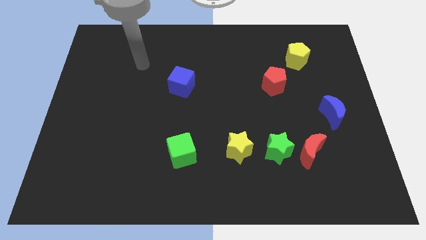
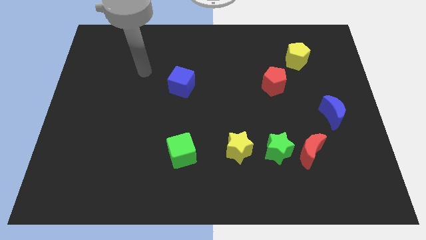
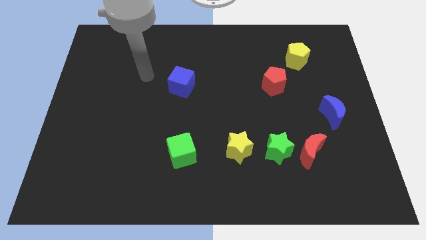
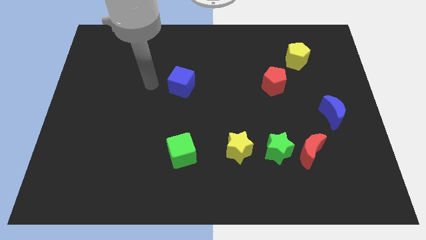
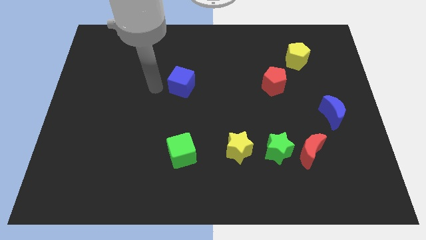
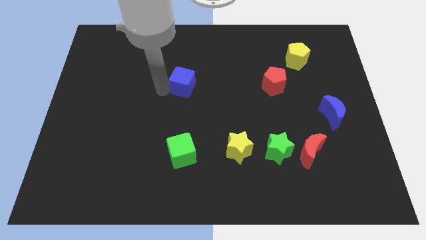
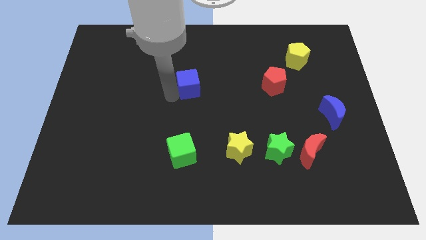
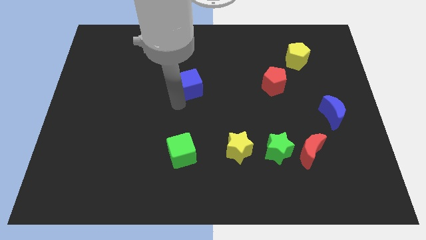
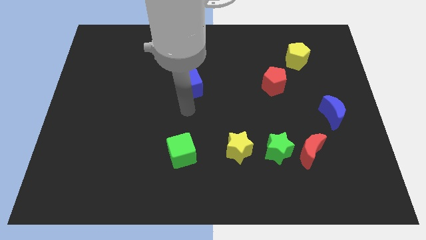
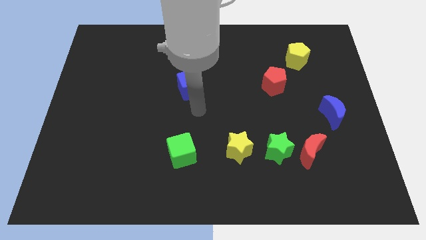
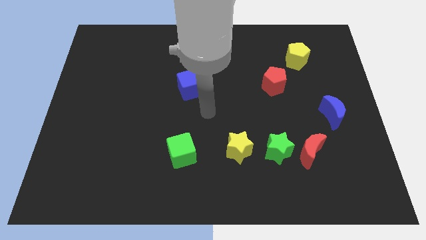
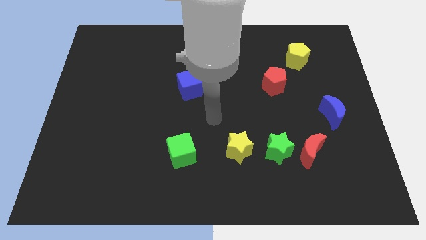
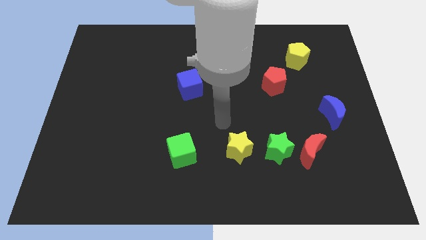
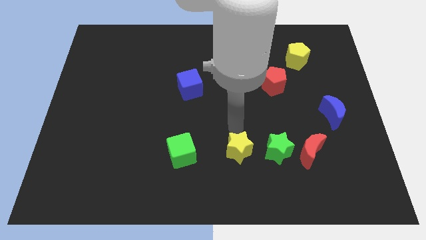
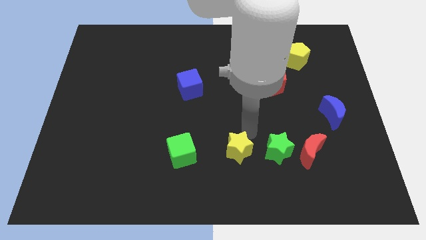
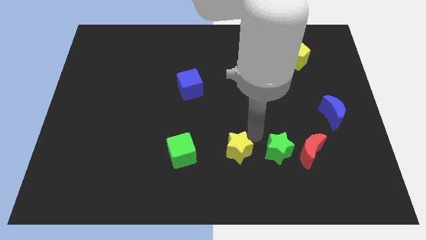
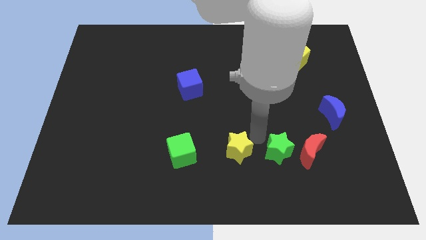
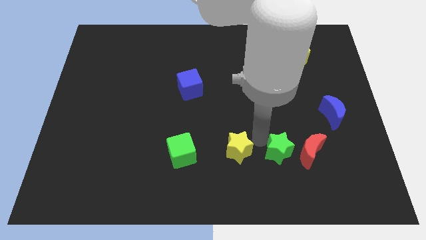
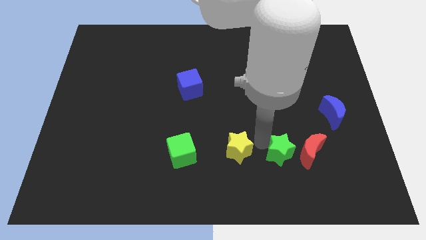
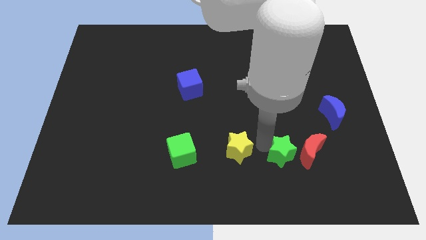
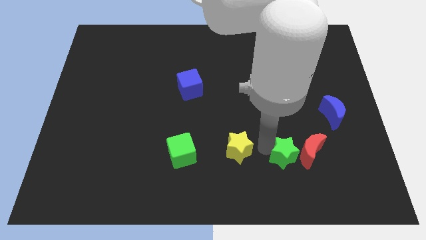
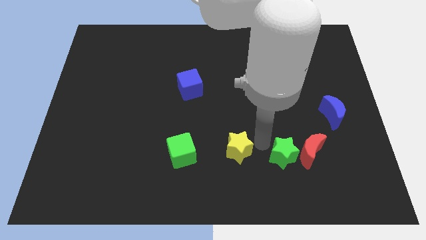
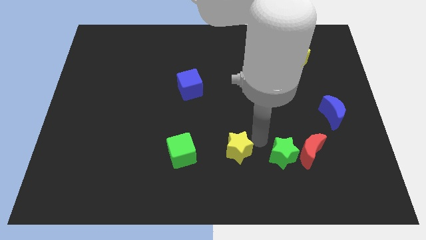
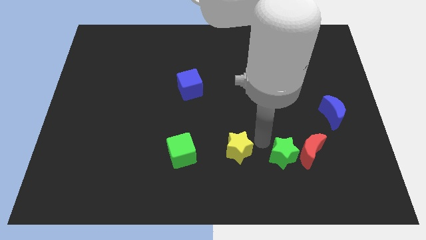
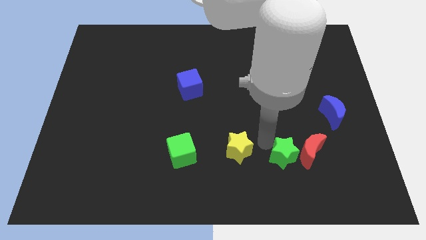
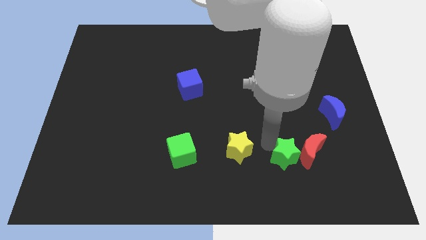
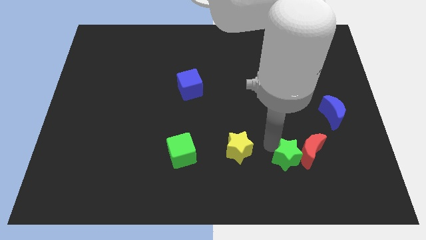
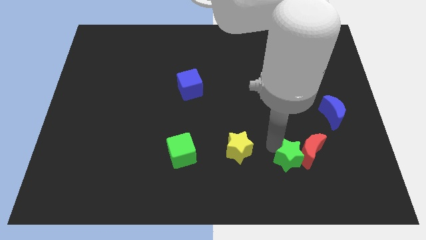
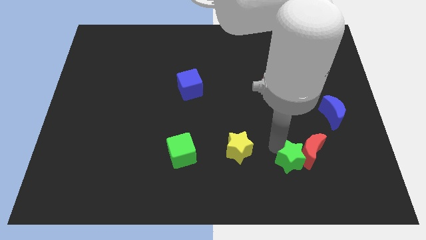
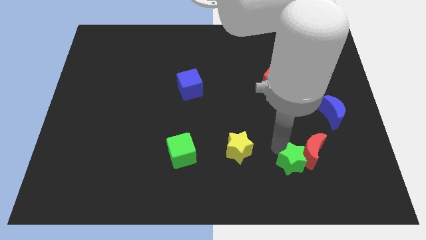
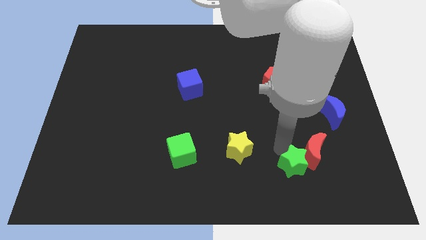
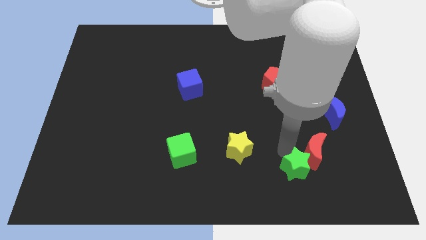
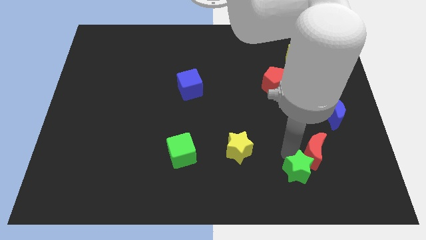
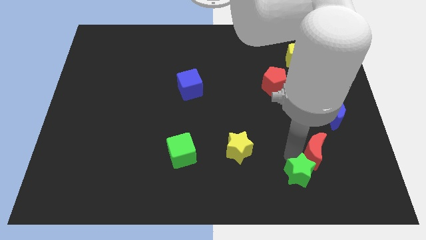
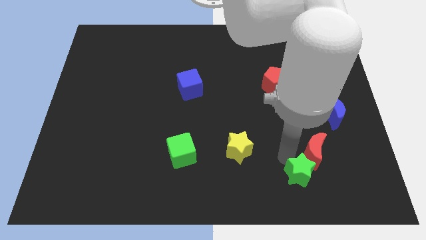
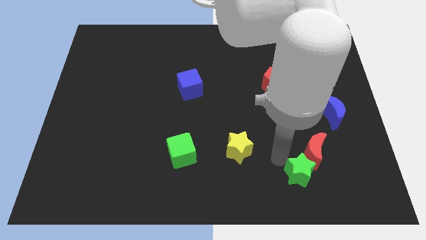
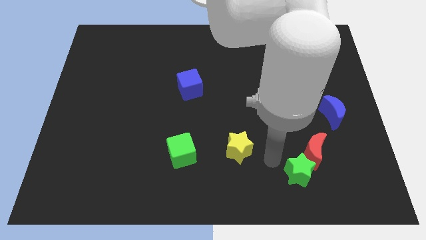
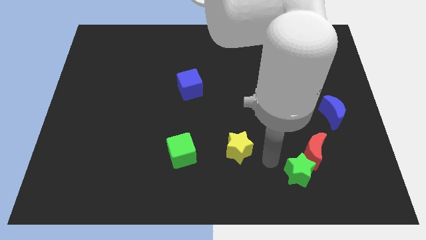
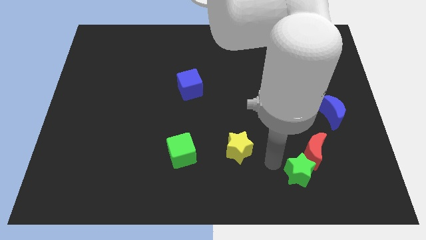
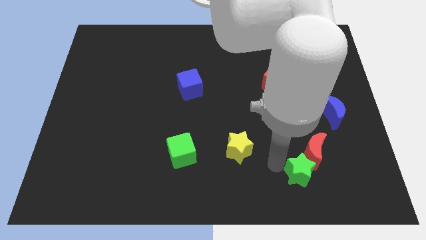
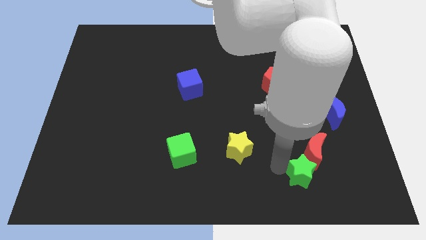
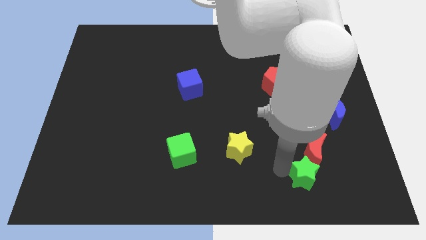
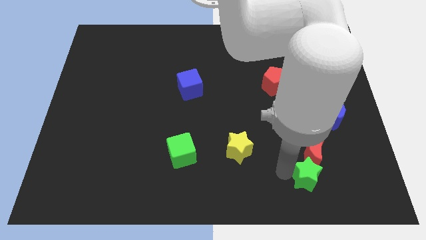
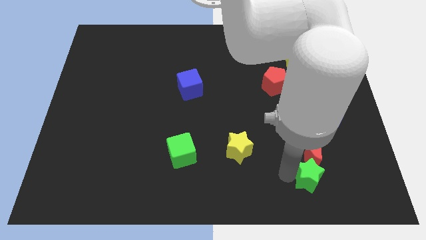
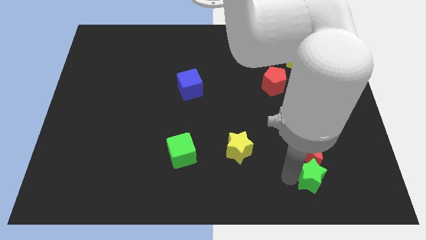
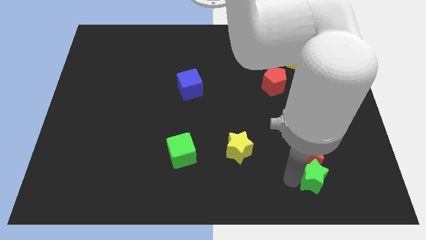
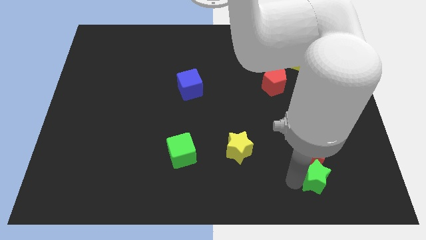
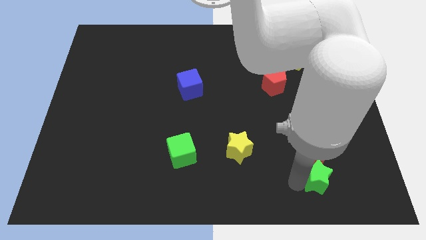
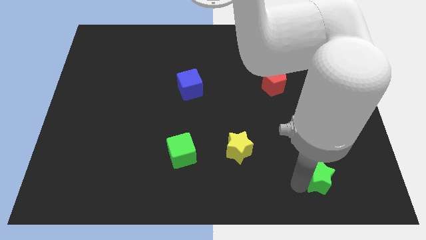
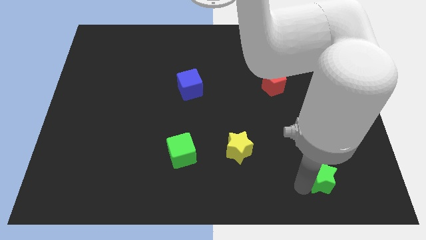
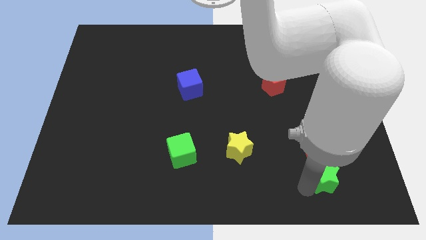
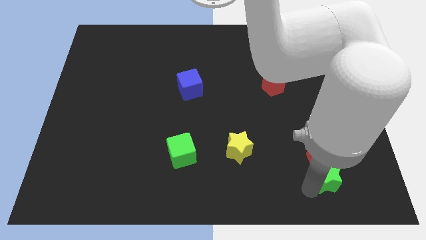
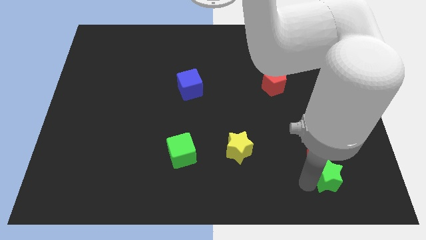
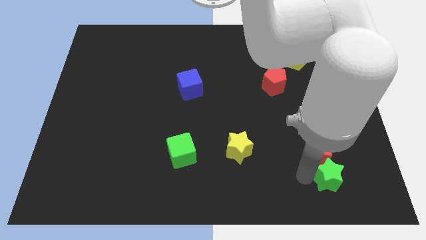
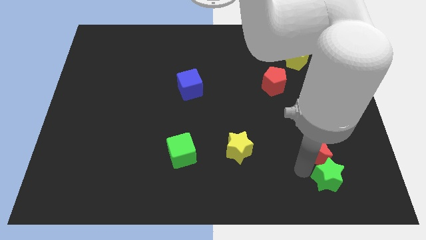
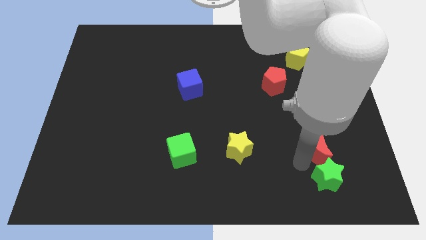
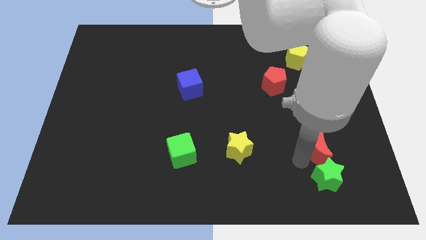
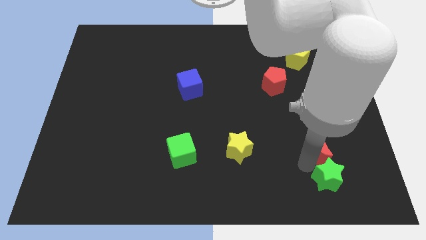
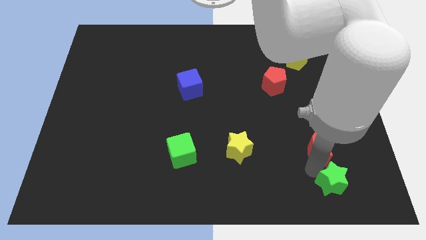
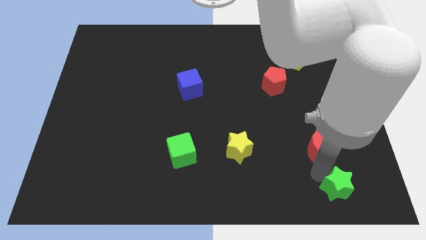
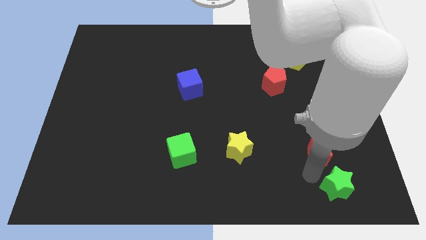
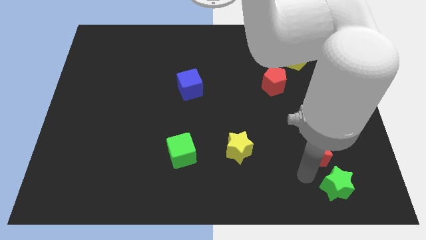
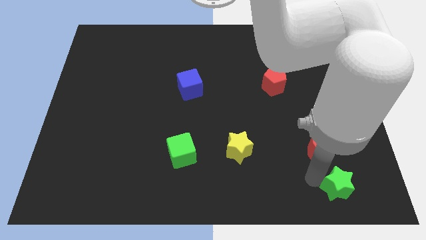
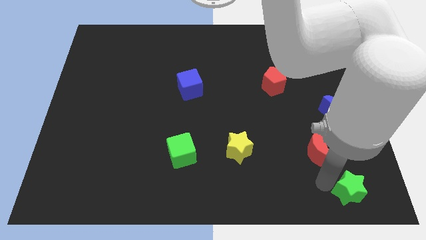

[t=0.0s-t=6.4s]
put the green star to the lower right corner
